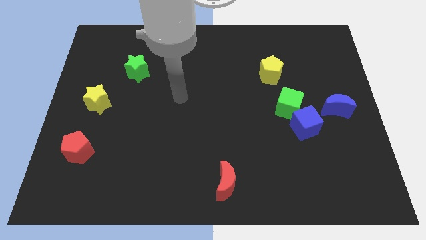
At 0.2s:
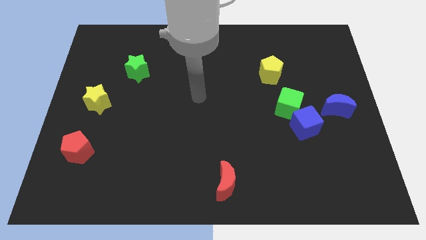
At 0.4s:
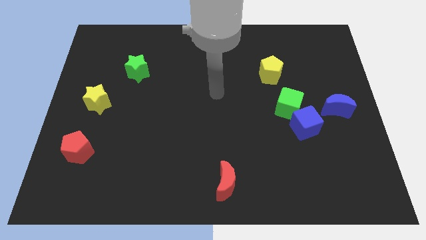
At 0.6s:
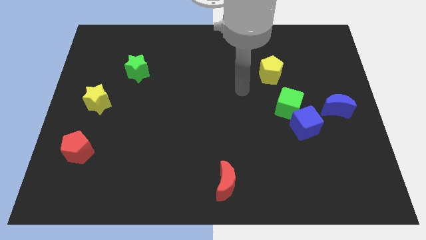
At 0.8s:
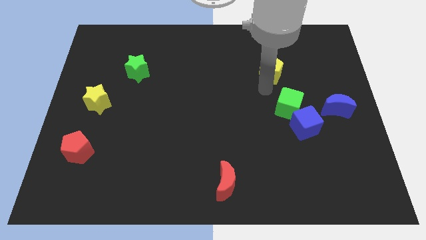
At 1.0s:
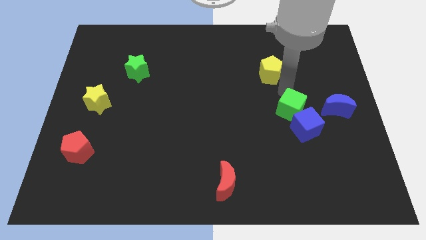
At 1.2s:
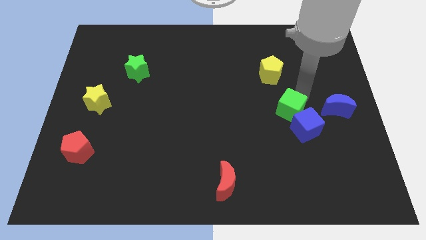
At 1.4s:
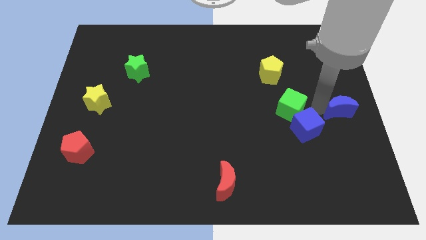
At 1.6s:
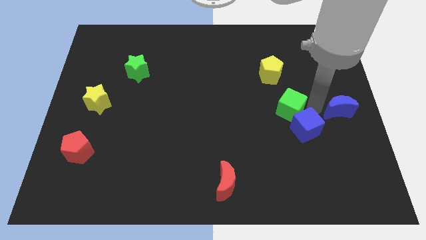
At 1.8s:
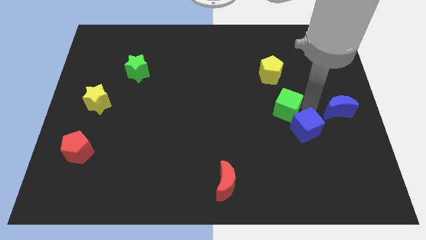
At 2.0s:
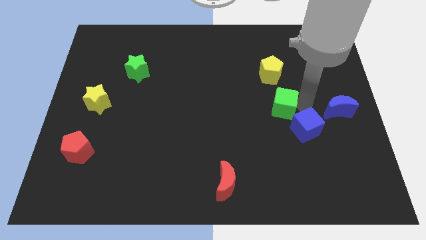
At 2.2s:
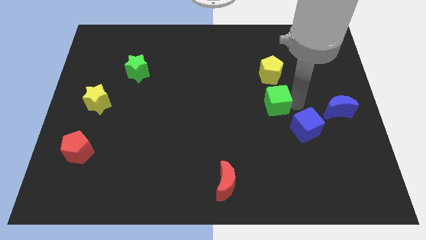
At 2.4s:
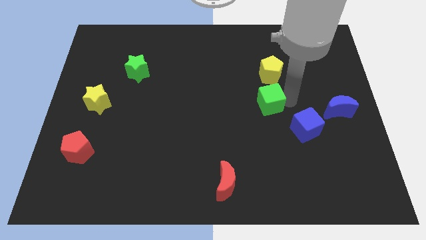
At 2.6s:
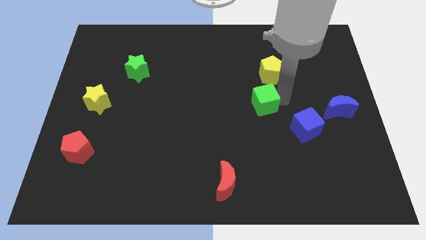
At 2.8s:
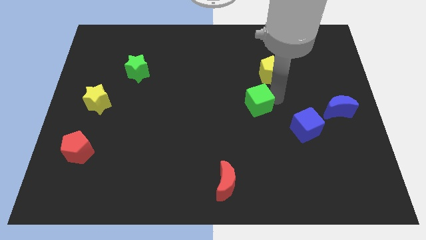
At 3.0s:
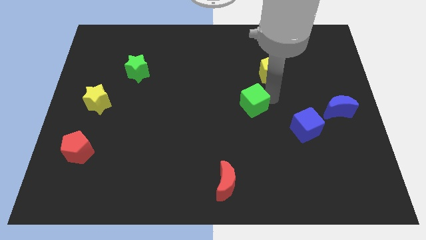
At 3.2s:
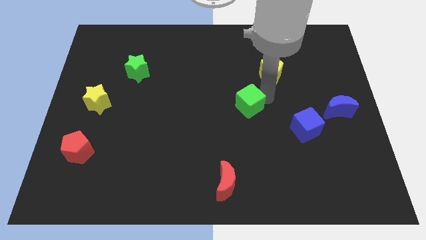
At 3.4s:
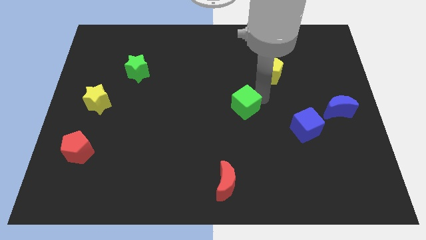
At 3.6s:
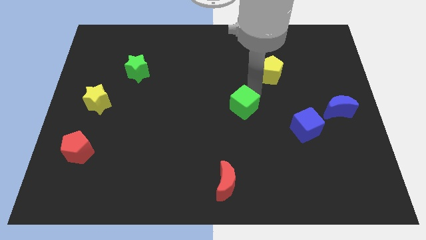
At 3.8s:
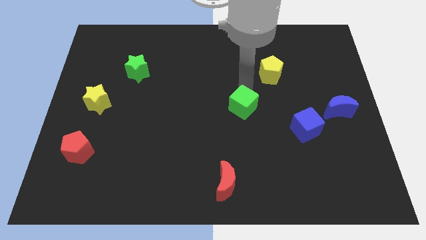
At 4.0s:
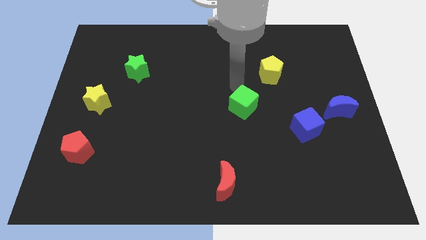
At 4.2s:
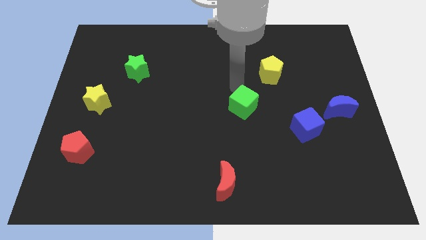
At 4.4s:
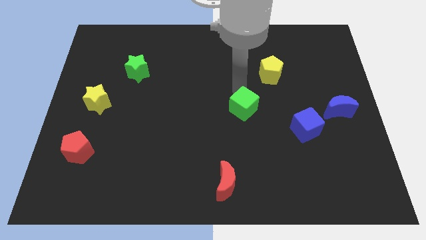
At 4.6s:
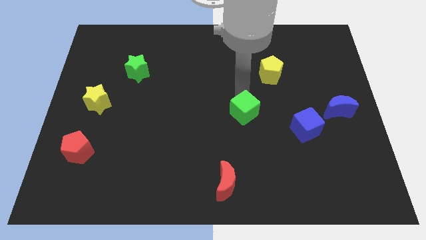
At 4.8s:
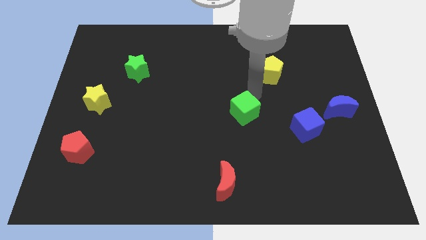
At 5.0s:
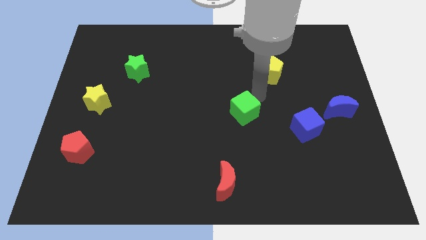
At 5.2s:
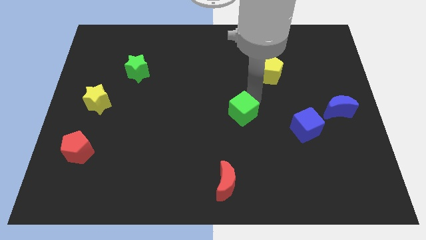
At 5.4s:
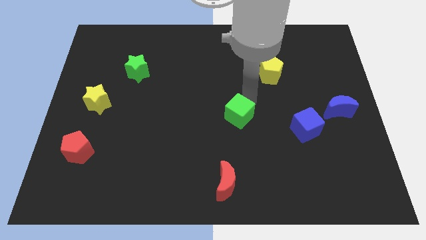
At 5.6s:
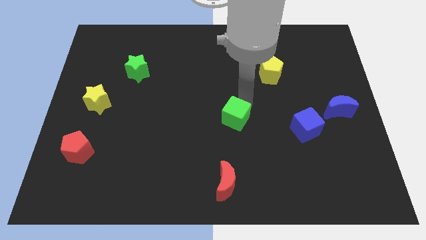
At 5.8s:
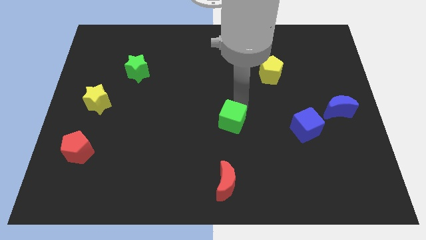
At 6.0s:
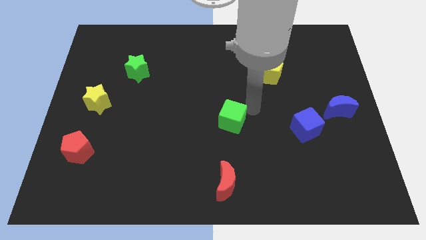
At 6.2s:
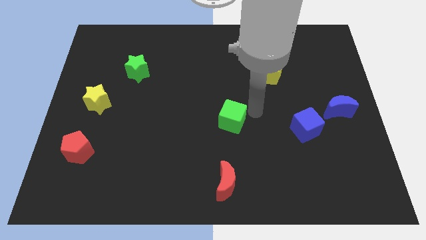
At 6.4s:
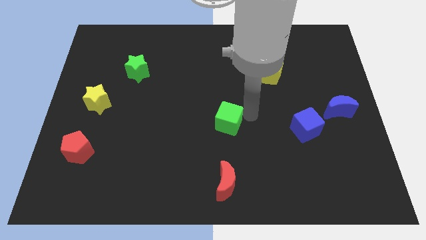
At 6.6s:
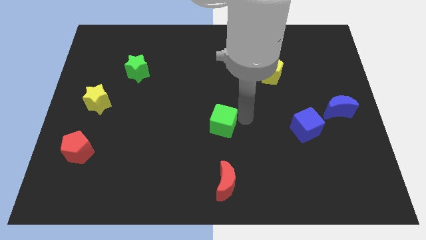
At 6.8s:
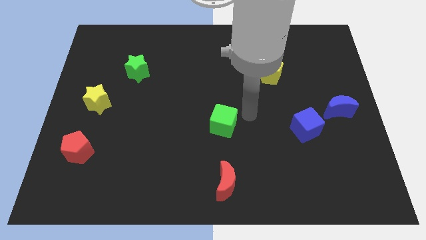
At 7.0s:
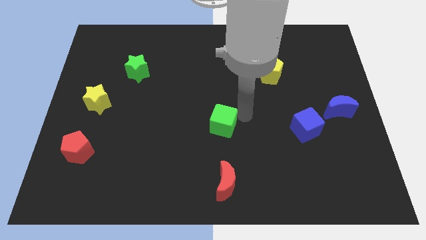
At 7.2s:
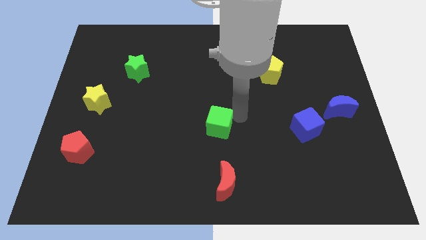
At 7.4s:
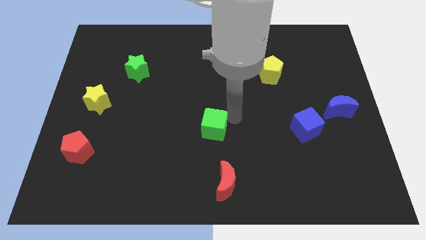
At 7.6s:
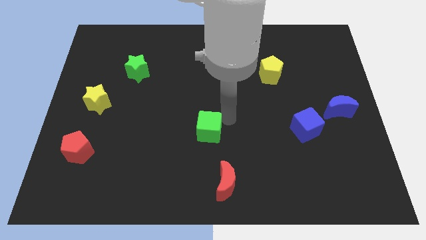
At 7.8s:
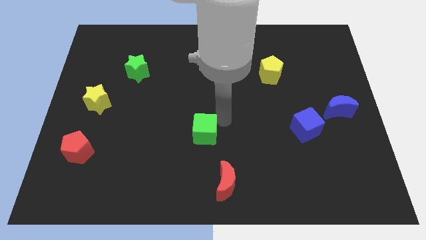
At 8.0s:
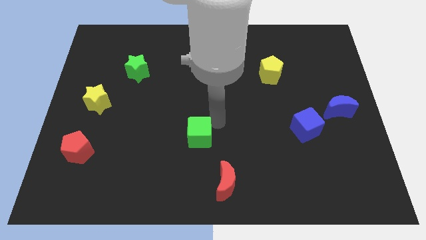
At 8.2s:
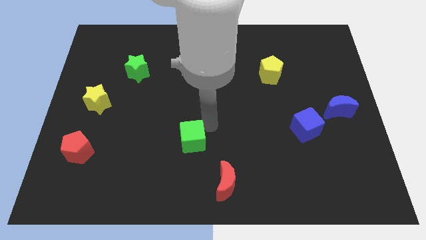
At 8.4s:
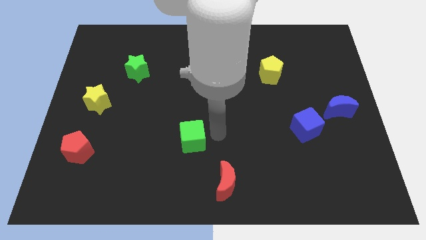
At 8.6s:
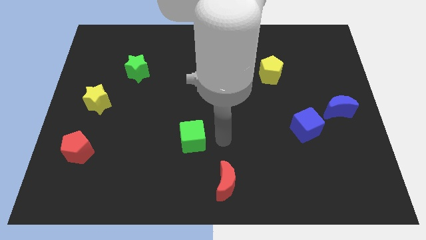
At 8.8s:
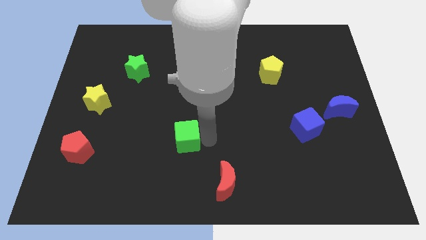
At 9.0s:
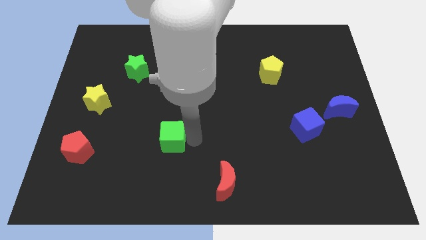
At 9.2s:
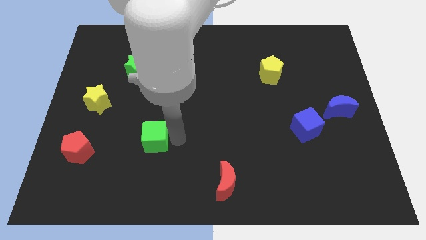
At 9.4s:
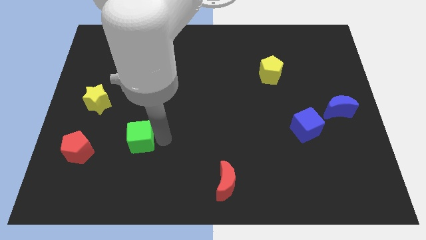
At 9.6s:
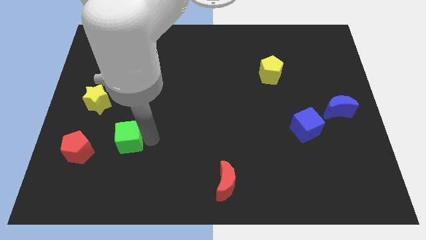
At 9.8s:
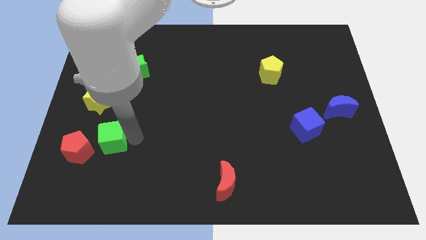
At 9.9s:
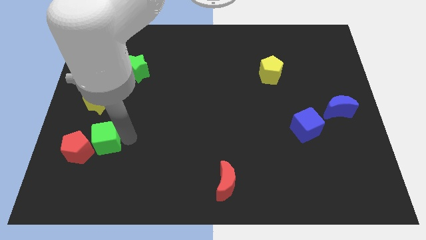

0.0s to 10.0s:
push the green cube next to the red pentagon

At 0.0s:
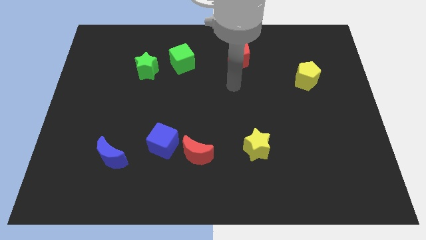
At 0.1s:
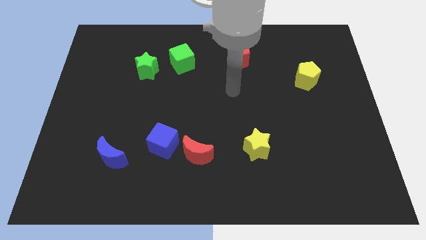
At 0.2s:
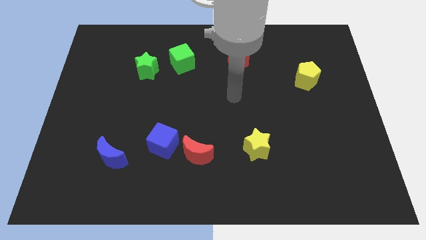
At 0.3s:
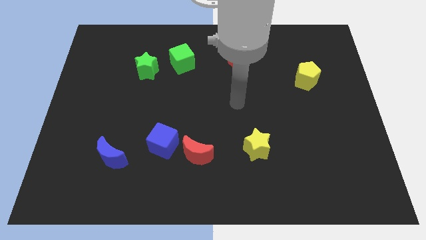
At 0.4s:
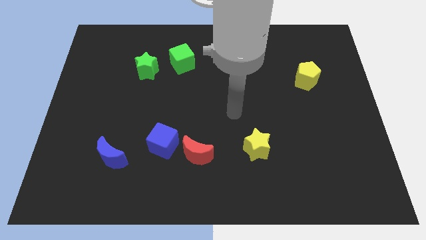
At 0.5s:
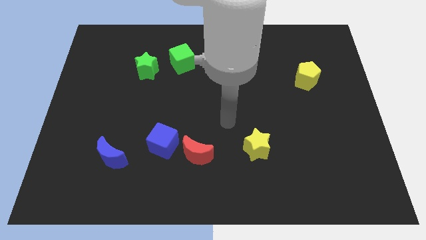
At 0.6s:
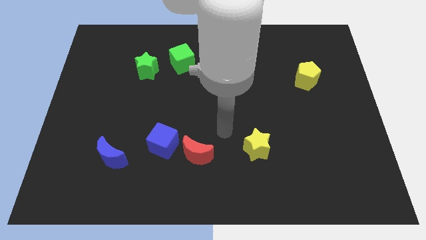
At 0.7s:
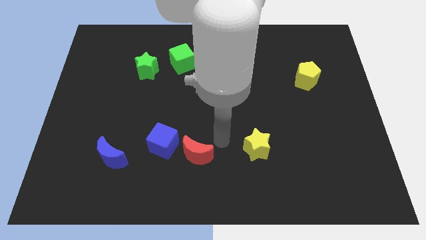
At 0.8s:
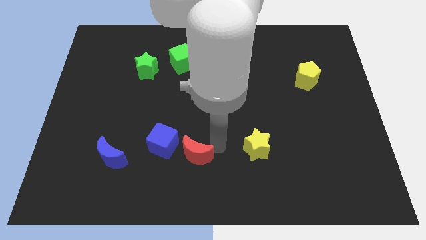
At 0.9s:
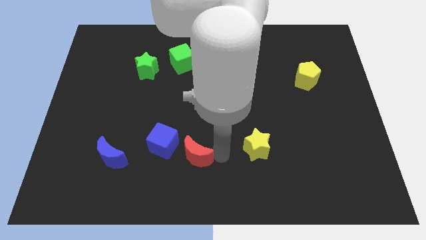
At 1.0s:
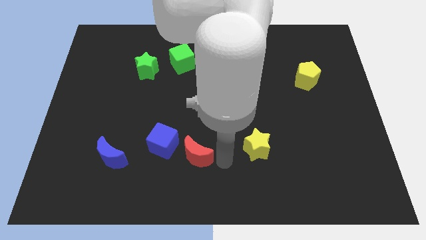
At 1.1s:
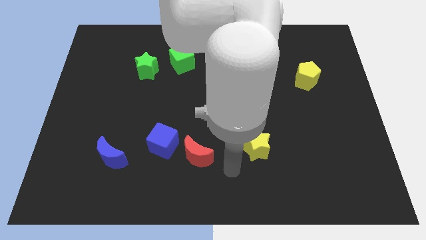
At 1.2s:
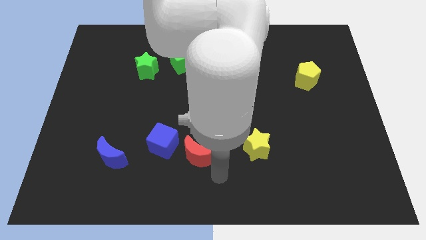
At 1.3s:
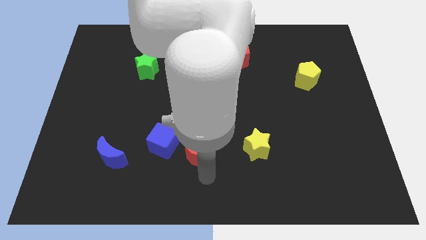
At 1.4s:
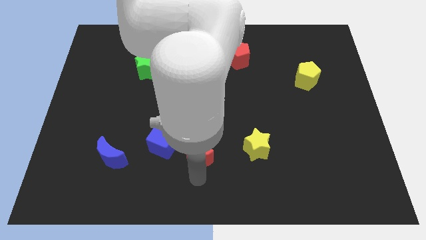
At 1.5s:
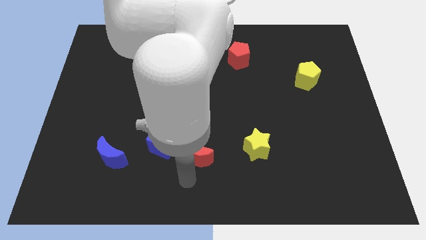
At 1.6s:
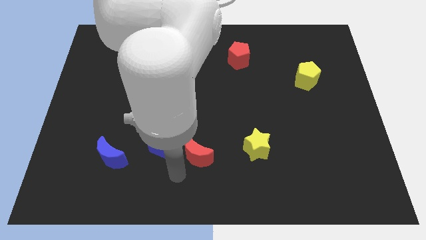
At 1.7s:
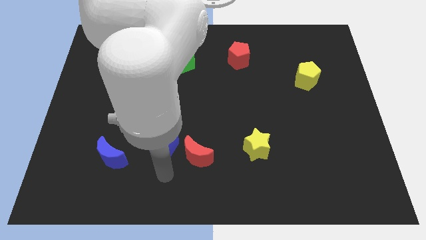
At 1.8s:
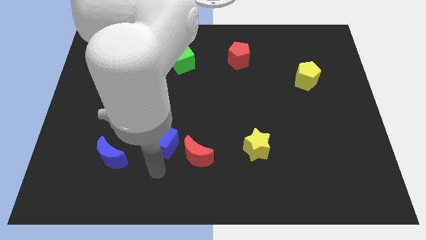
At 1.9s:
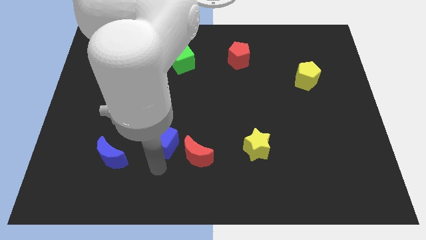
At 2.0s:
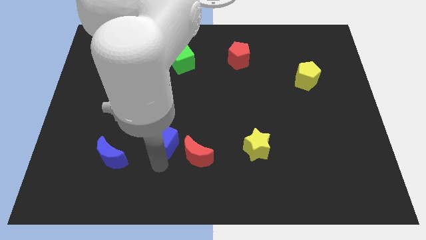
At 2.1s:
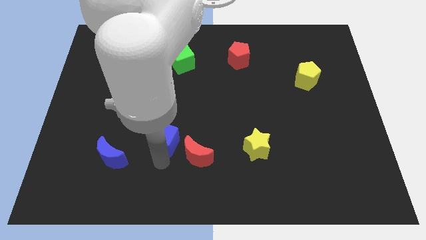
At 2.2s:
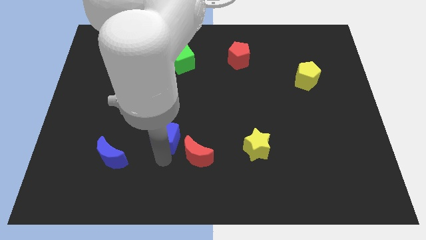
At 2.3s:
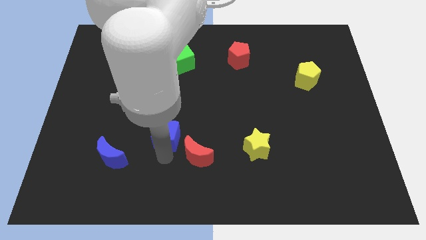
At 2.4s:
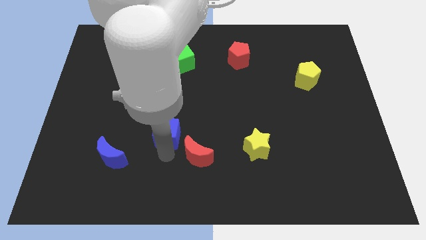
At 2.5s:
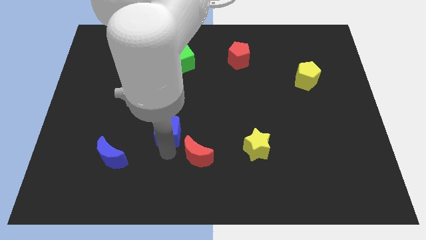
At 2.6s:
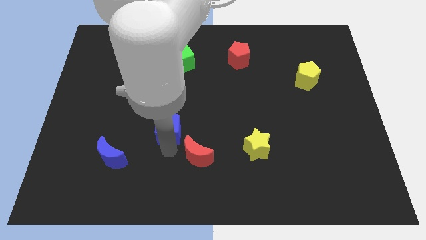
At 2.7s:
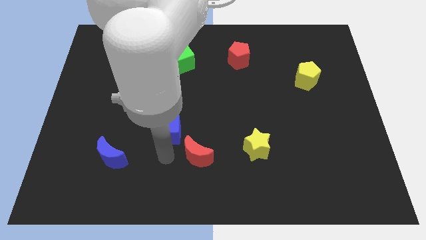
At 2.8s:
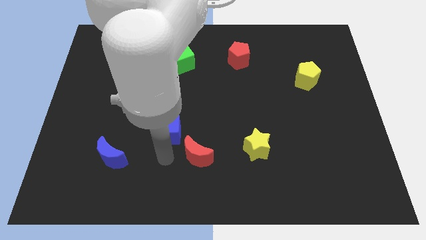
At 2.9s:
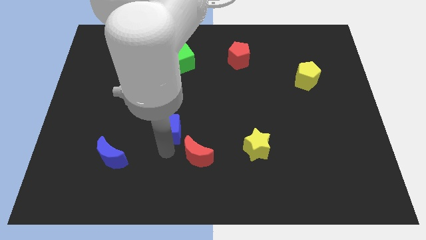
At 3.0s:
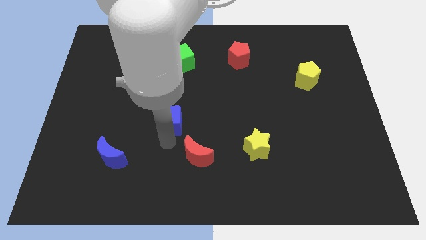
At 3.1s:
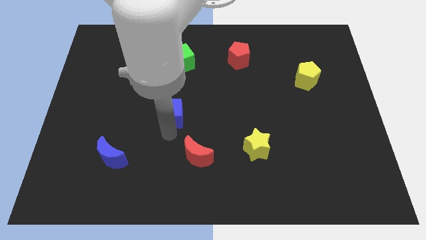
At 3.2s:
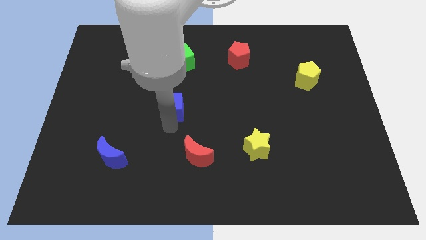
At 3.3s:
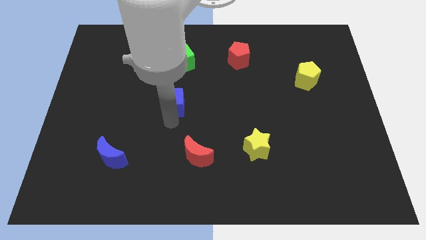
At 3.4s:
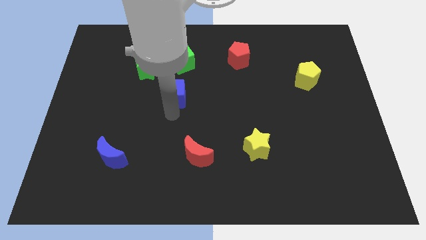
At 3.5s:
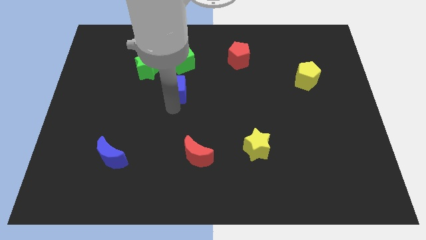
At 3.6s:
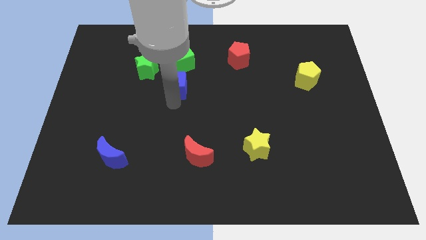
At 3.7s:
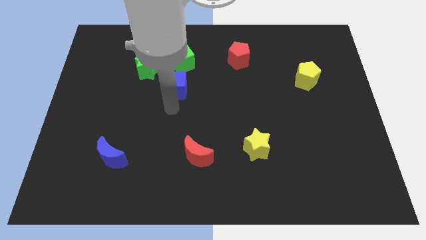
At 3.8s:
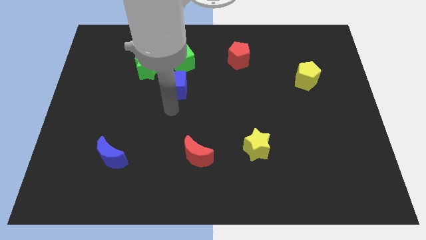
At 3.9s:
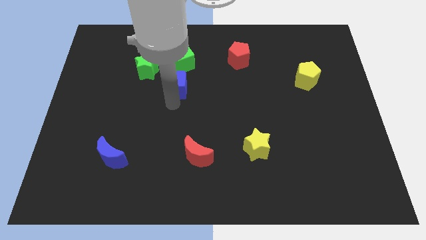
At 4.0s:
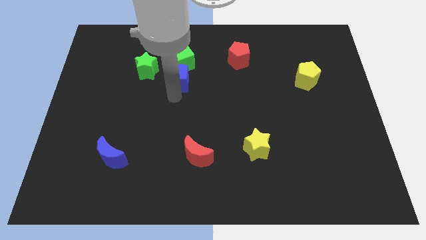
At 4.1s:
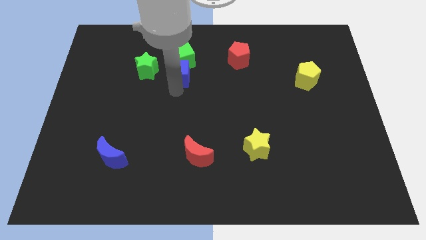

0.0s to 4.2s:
slide the blue cube towards the green cube
